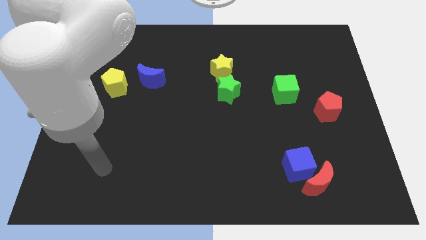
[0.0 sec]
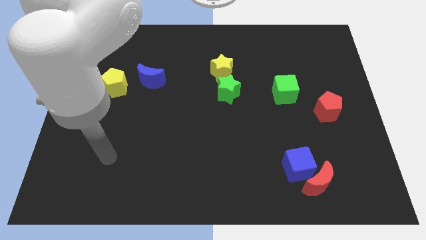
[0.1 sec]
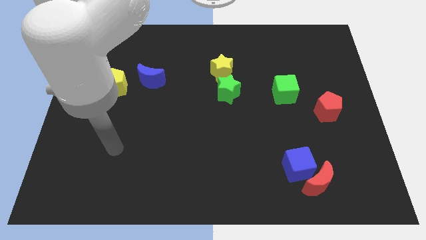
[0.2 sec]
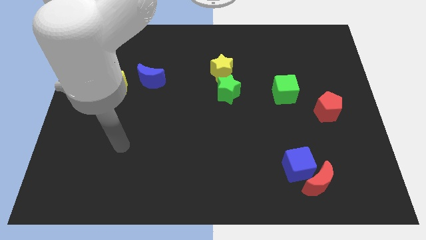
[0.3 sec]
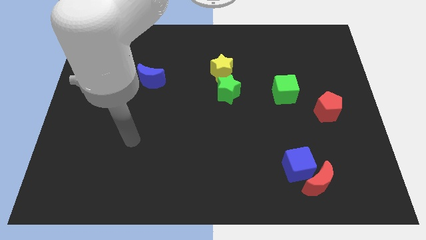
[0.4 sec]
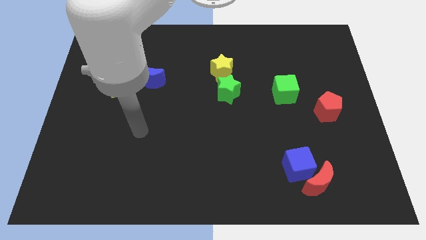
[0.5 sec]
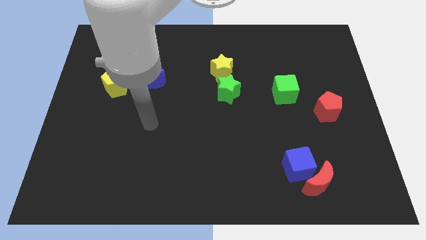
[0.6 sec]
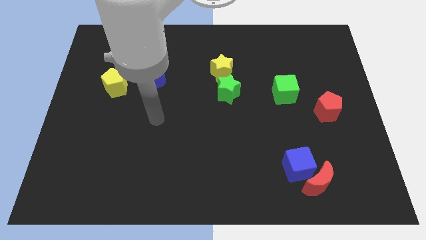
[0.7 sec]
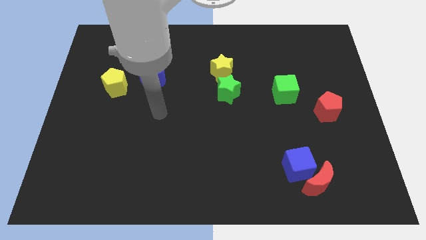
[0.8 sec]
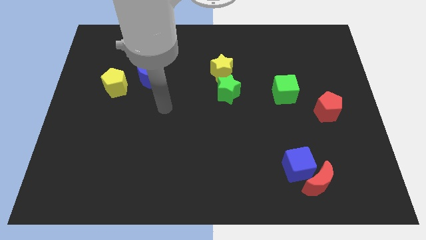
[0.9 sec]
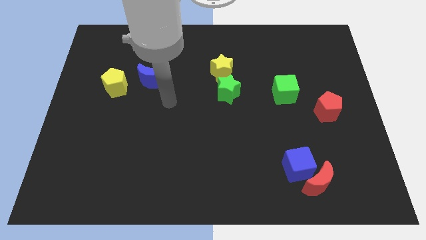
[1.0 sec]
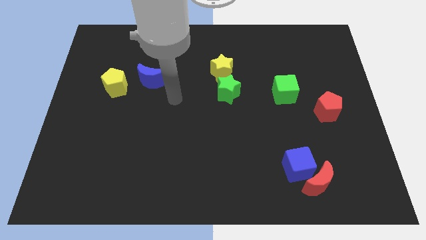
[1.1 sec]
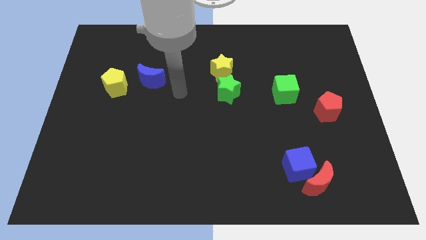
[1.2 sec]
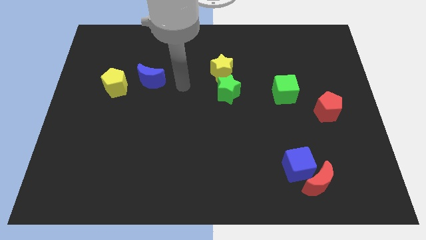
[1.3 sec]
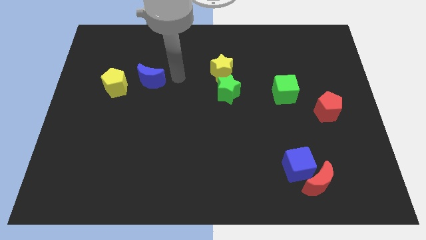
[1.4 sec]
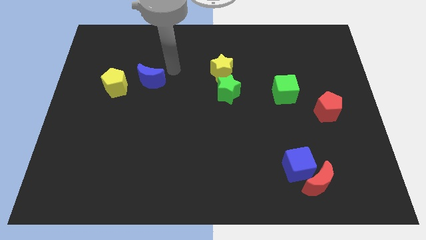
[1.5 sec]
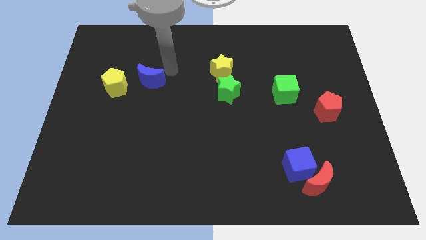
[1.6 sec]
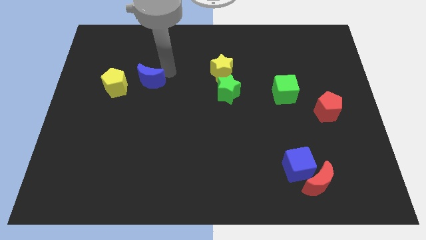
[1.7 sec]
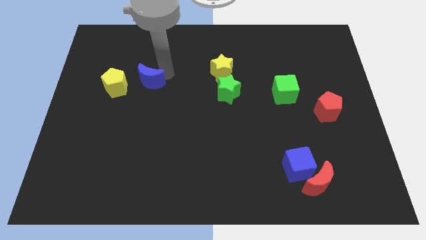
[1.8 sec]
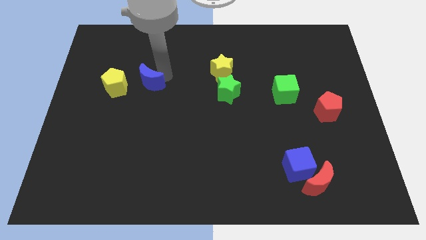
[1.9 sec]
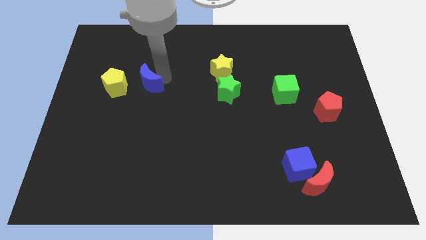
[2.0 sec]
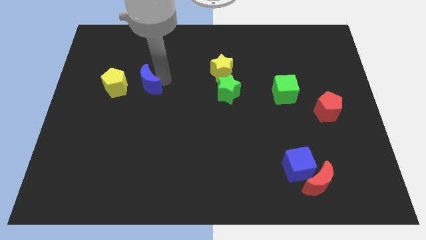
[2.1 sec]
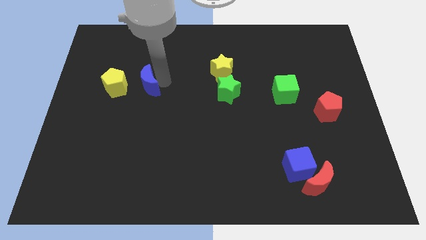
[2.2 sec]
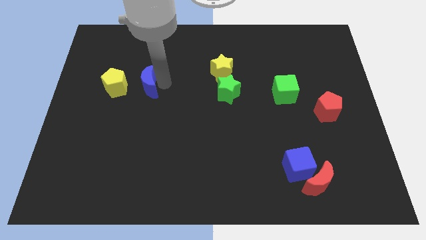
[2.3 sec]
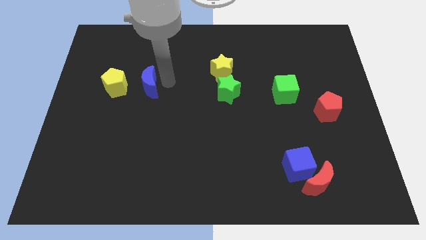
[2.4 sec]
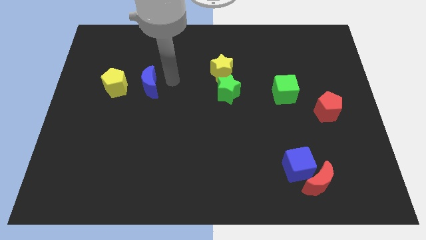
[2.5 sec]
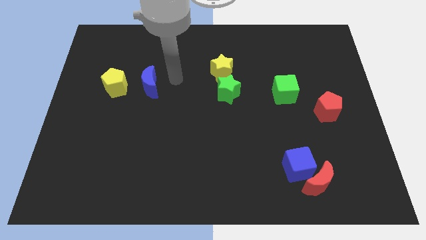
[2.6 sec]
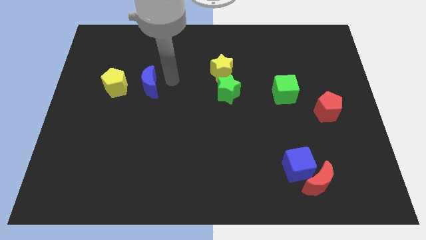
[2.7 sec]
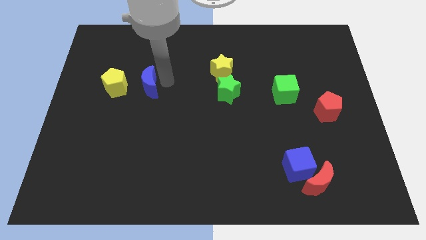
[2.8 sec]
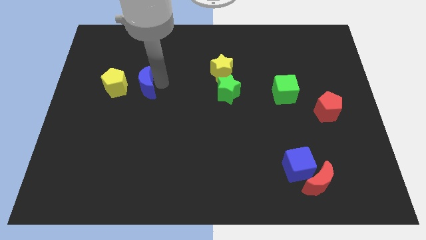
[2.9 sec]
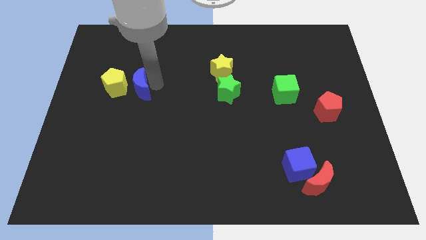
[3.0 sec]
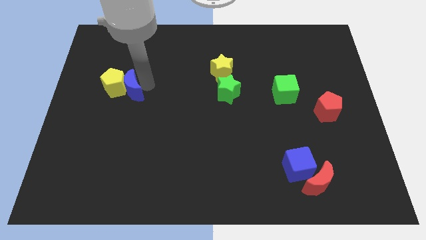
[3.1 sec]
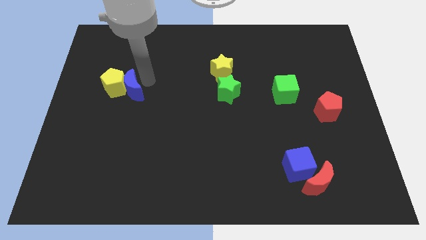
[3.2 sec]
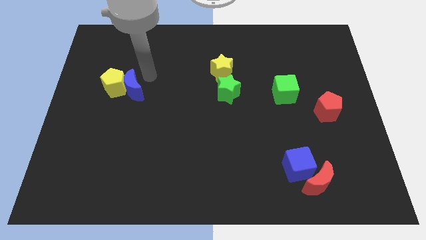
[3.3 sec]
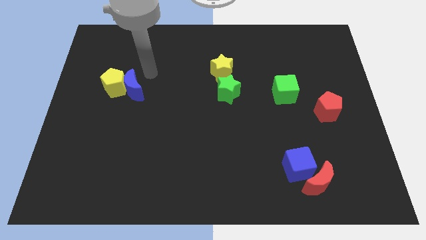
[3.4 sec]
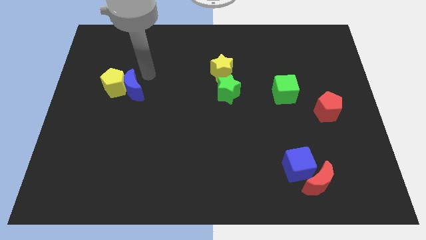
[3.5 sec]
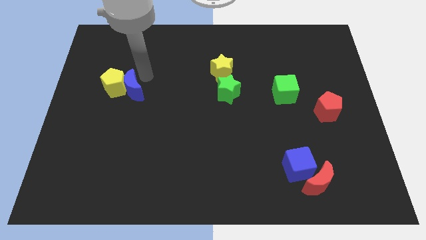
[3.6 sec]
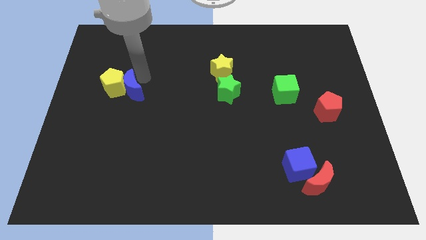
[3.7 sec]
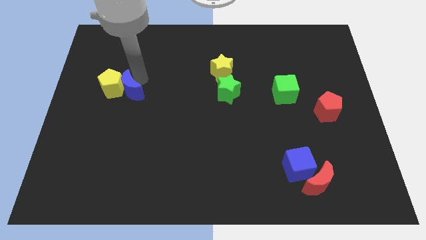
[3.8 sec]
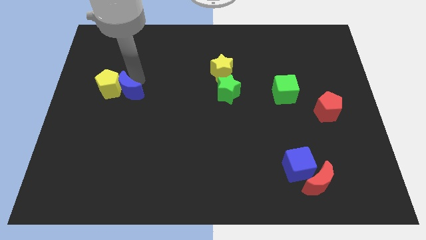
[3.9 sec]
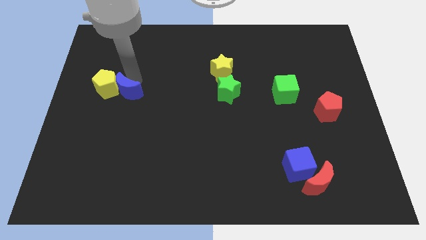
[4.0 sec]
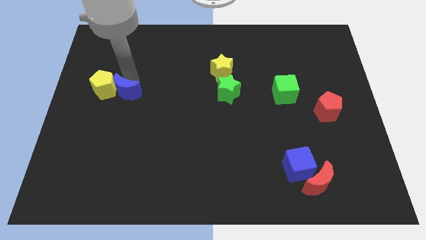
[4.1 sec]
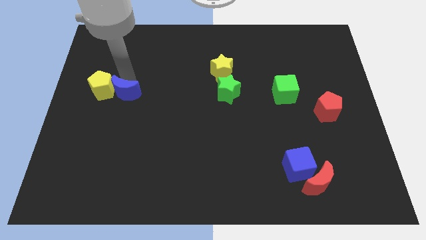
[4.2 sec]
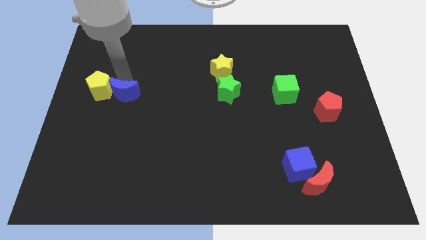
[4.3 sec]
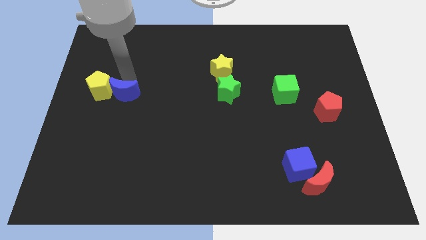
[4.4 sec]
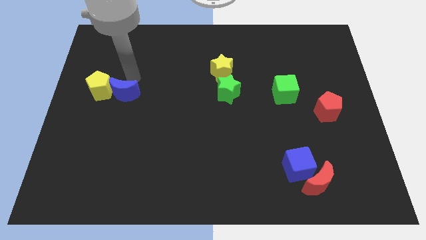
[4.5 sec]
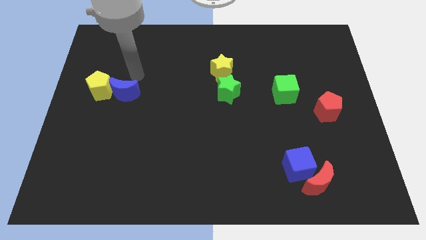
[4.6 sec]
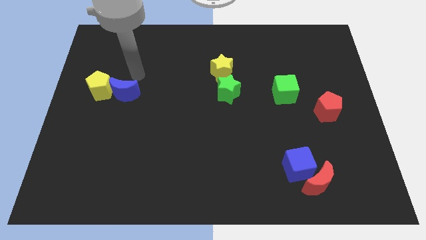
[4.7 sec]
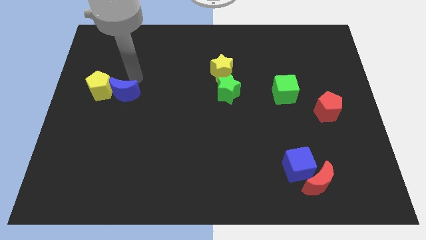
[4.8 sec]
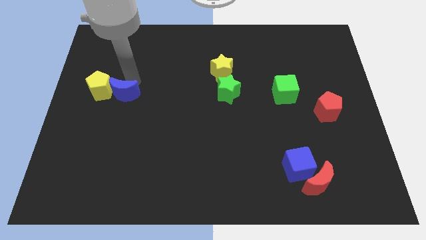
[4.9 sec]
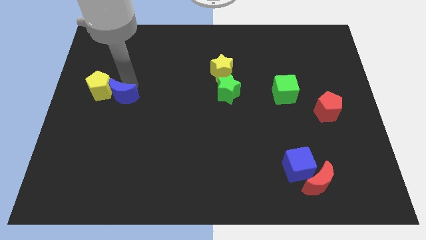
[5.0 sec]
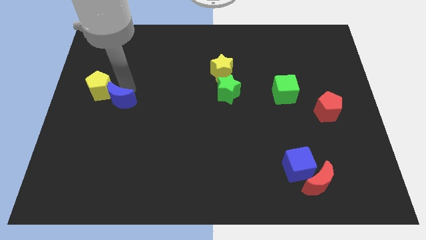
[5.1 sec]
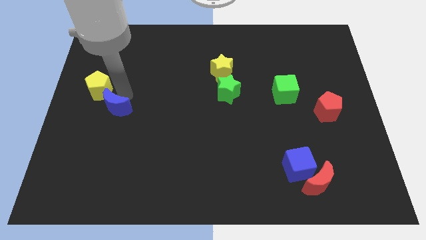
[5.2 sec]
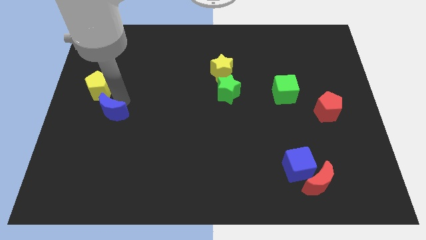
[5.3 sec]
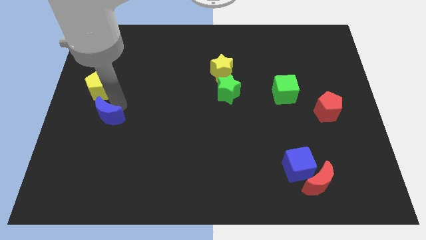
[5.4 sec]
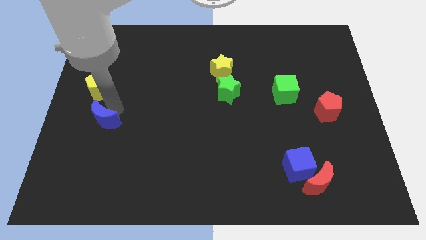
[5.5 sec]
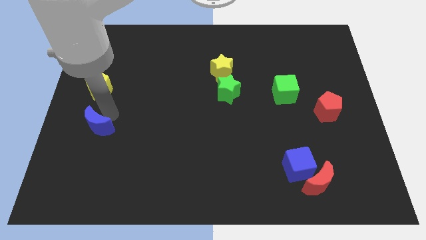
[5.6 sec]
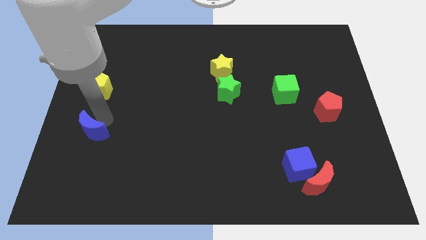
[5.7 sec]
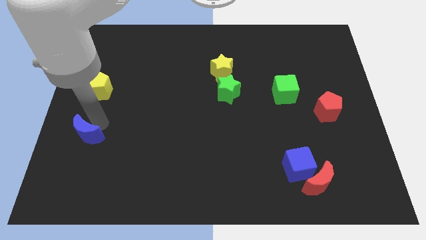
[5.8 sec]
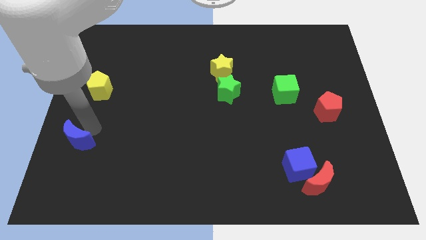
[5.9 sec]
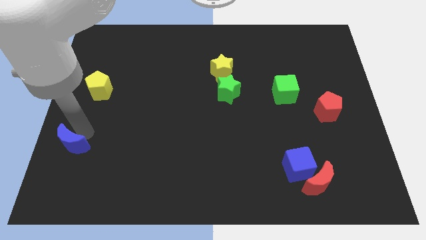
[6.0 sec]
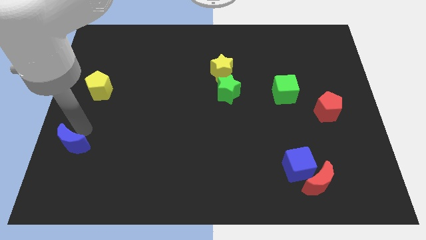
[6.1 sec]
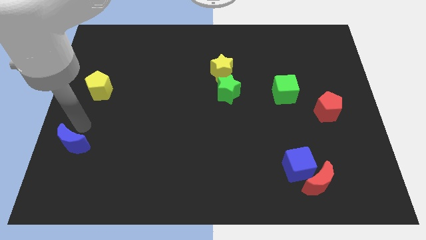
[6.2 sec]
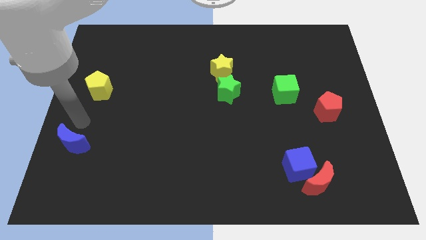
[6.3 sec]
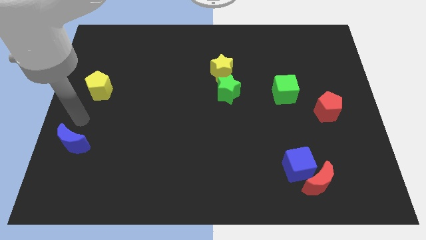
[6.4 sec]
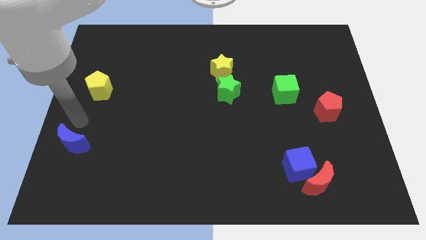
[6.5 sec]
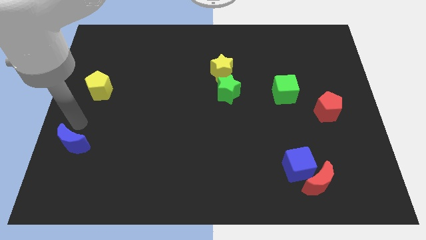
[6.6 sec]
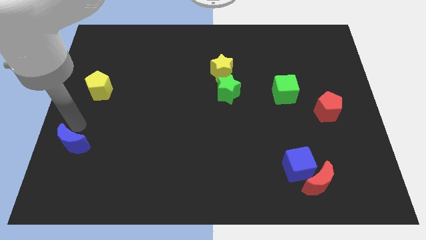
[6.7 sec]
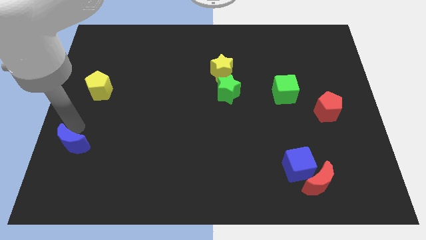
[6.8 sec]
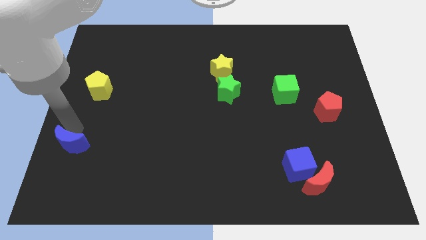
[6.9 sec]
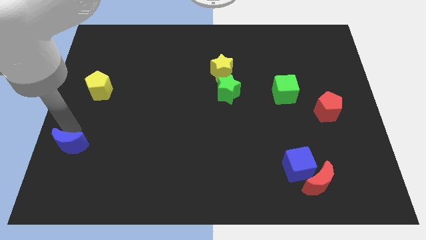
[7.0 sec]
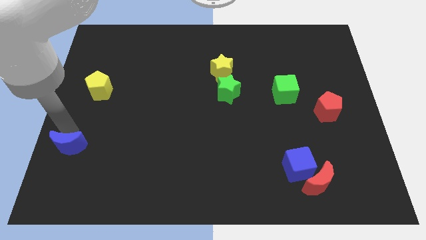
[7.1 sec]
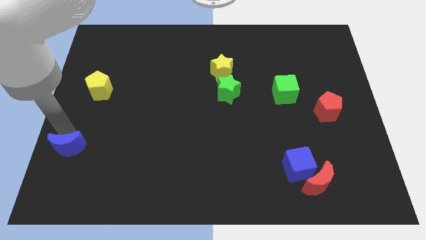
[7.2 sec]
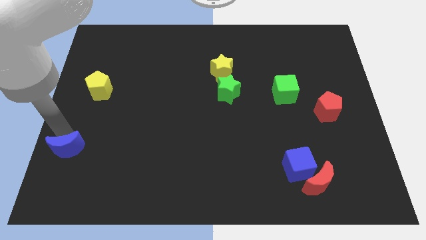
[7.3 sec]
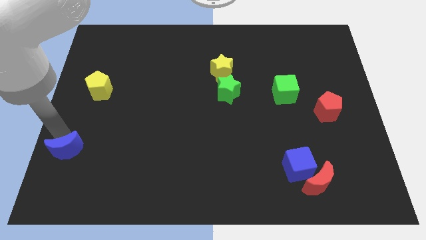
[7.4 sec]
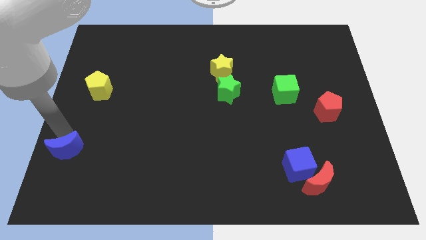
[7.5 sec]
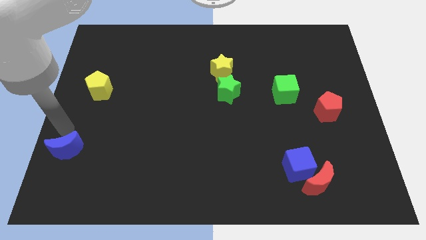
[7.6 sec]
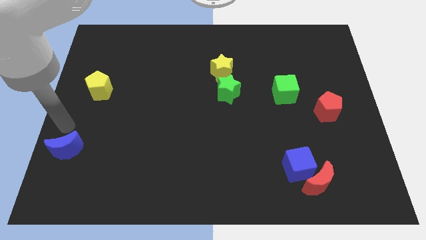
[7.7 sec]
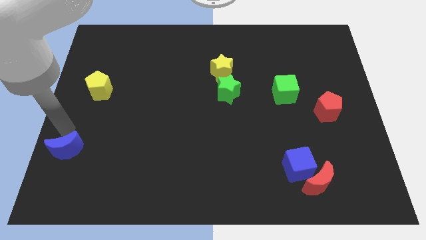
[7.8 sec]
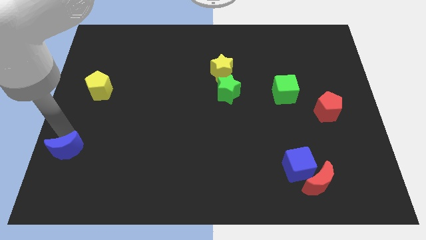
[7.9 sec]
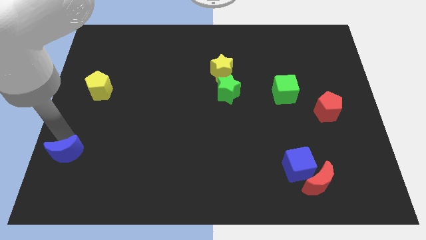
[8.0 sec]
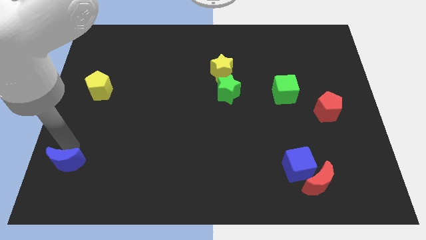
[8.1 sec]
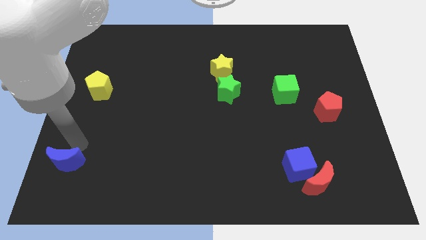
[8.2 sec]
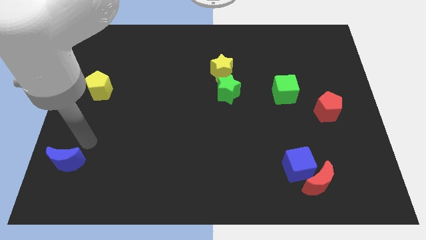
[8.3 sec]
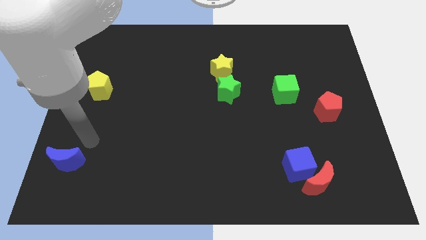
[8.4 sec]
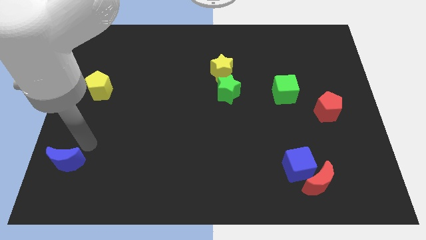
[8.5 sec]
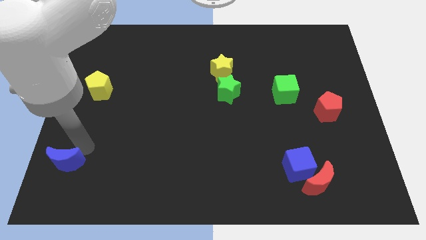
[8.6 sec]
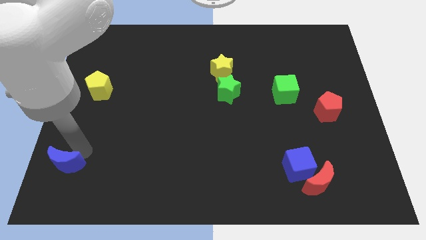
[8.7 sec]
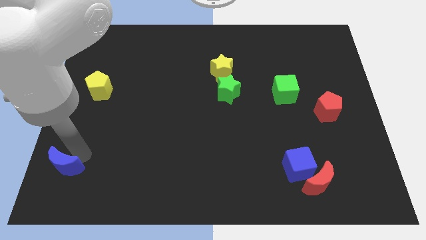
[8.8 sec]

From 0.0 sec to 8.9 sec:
put the blue moon to the bottom left corner
